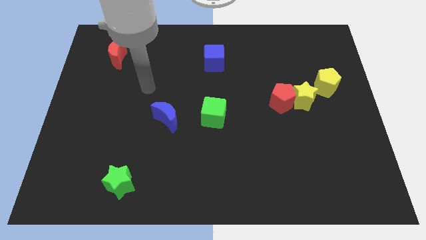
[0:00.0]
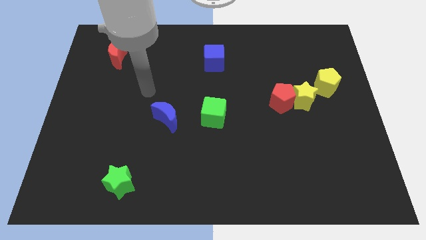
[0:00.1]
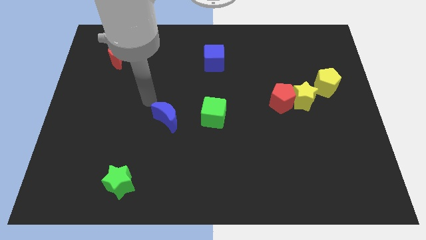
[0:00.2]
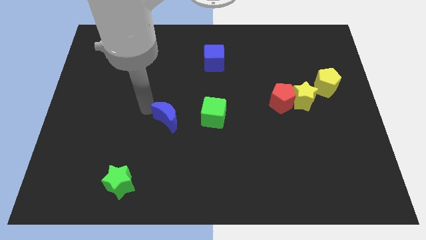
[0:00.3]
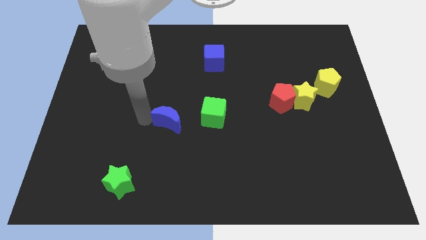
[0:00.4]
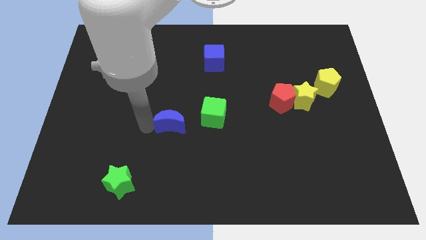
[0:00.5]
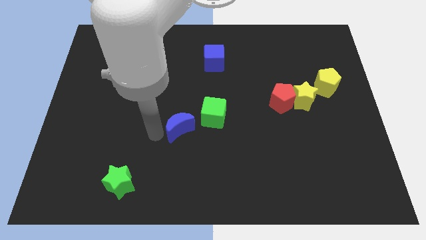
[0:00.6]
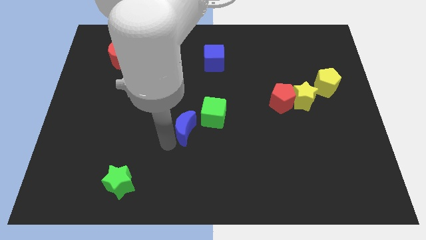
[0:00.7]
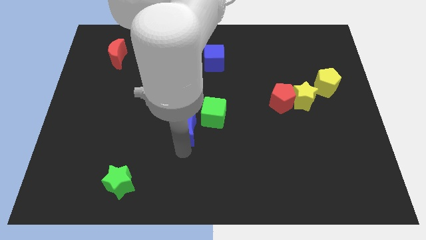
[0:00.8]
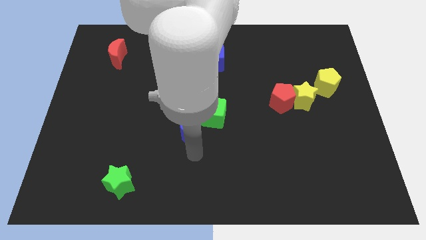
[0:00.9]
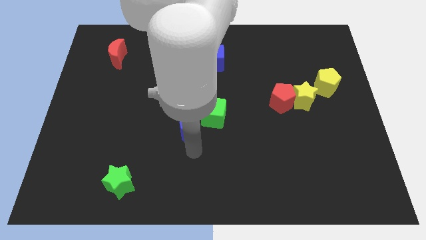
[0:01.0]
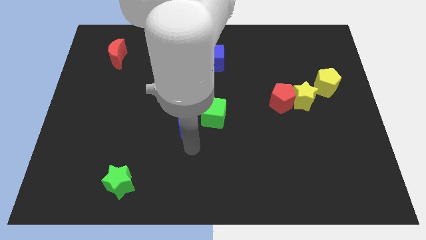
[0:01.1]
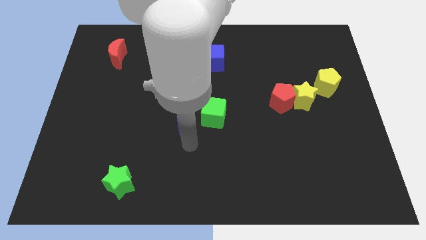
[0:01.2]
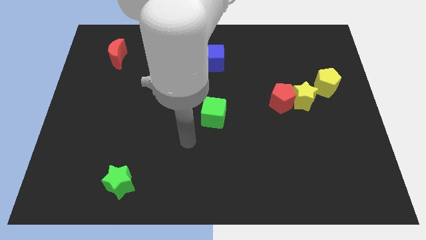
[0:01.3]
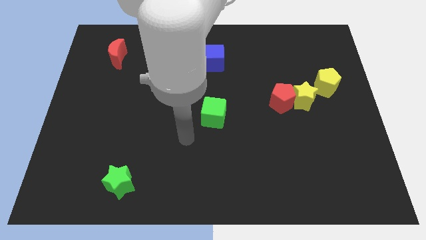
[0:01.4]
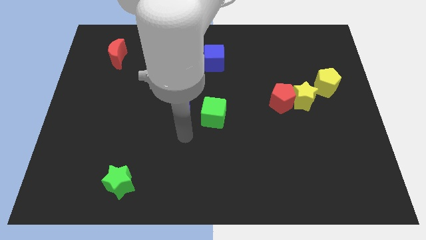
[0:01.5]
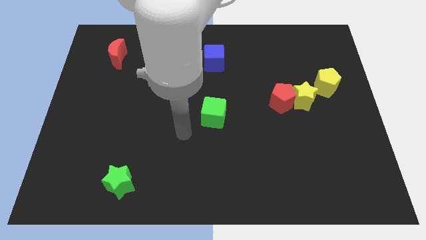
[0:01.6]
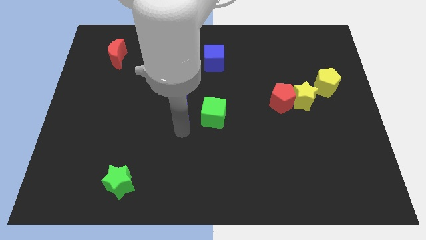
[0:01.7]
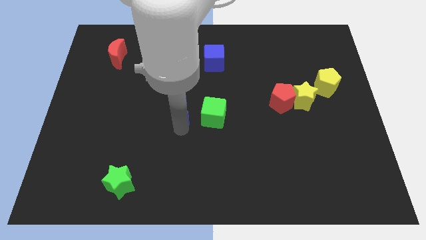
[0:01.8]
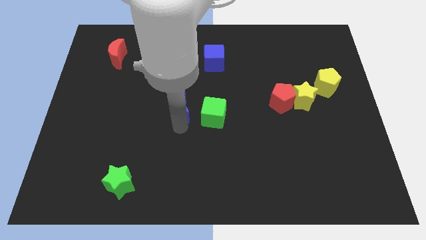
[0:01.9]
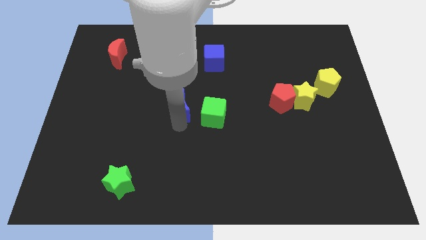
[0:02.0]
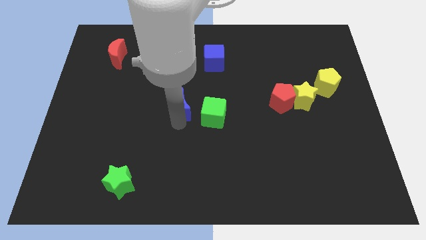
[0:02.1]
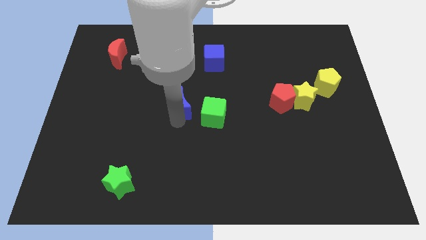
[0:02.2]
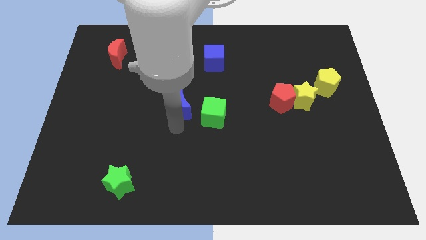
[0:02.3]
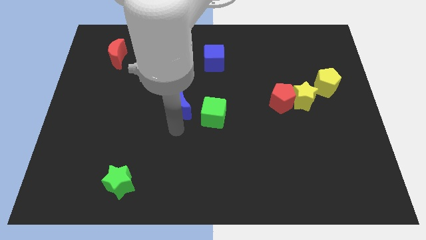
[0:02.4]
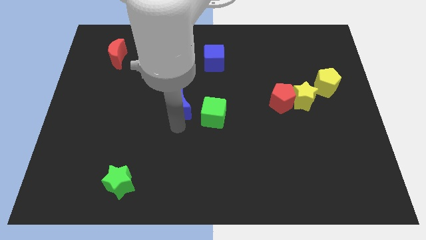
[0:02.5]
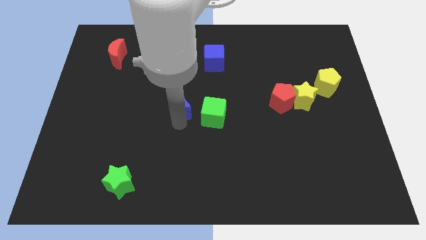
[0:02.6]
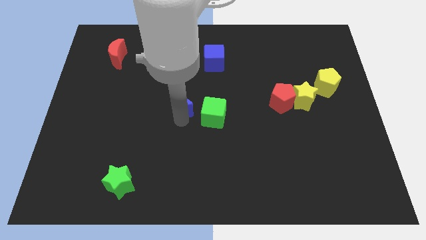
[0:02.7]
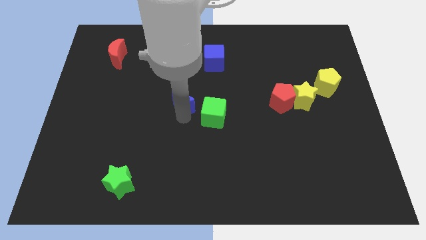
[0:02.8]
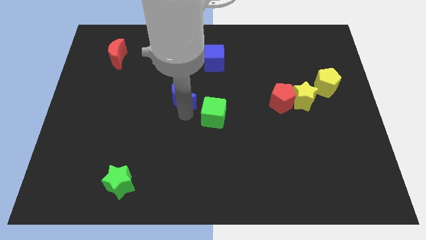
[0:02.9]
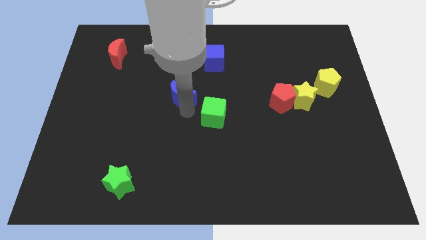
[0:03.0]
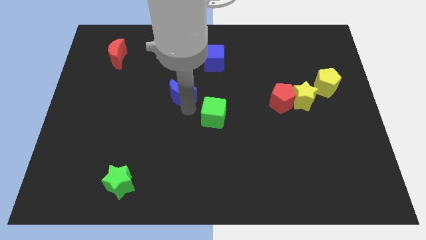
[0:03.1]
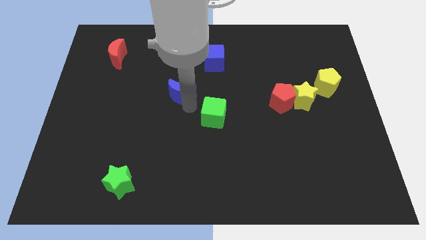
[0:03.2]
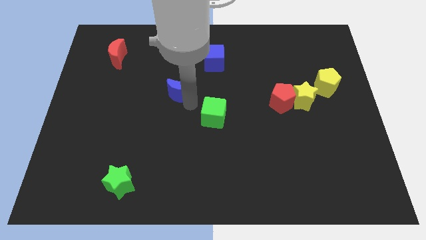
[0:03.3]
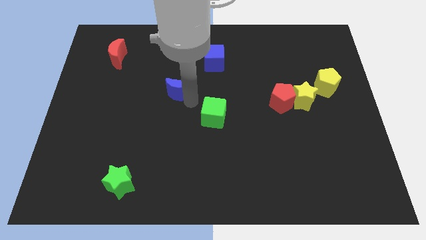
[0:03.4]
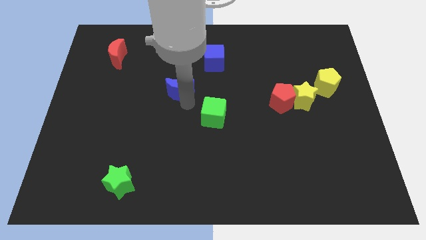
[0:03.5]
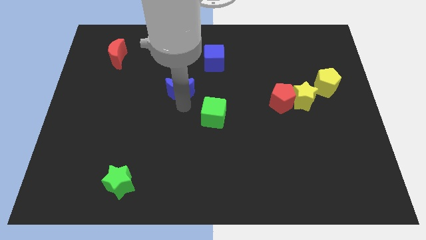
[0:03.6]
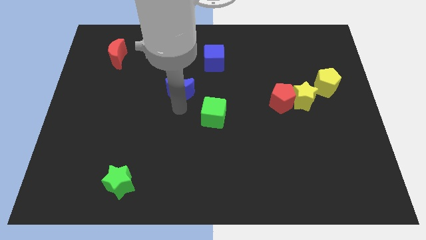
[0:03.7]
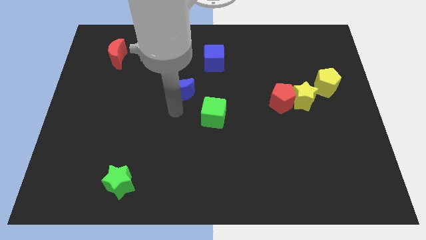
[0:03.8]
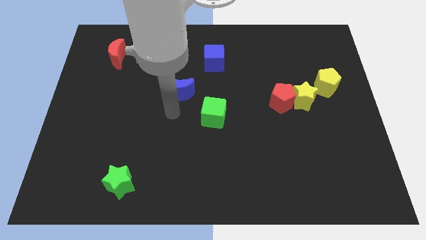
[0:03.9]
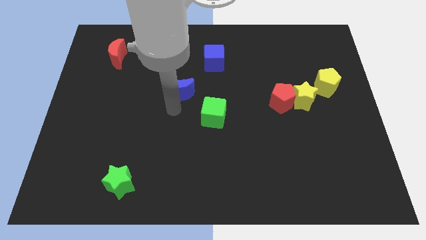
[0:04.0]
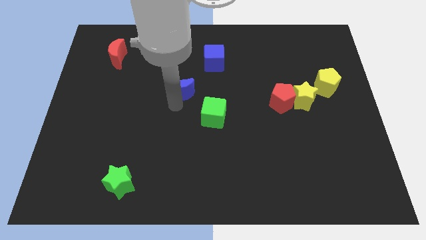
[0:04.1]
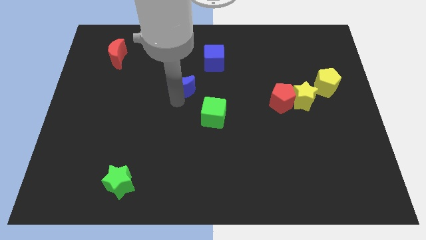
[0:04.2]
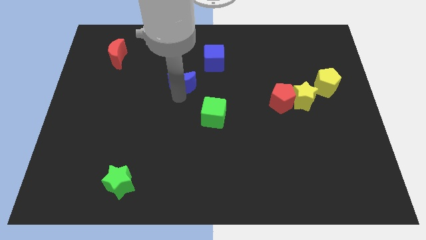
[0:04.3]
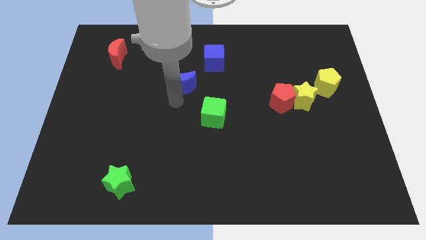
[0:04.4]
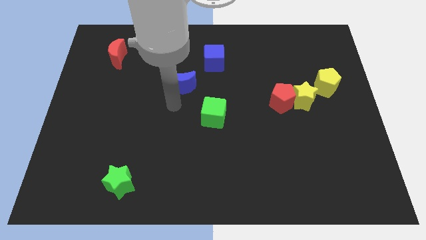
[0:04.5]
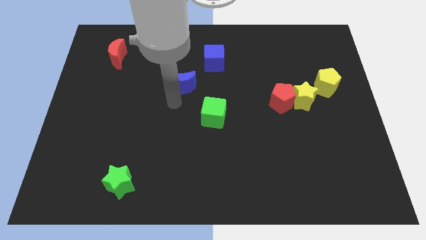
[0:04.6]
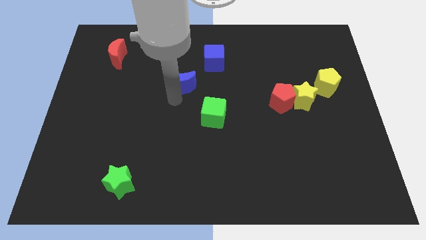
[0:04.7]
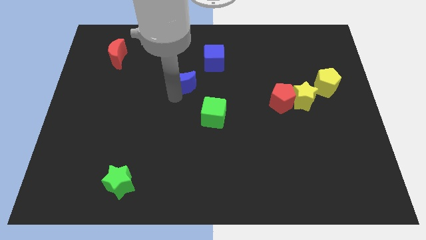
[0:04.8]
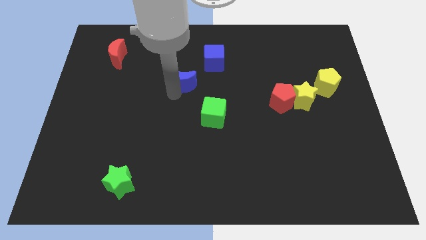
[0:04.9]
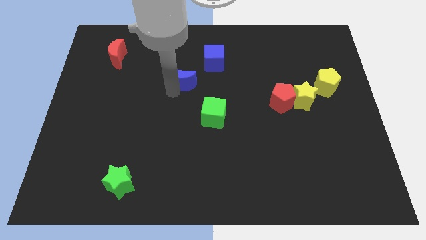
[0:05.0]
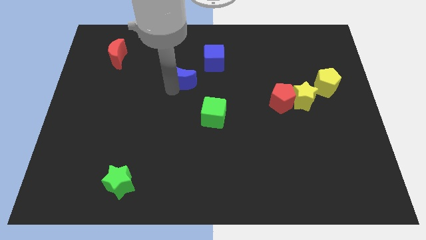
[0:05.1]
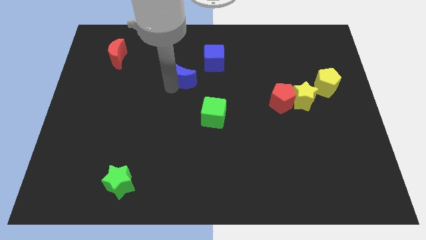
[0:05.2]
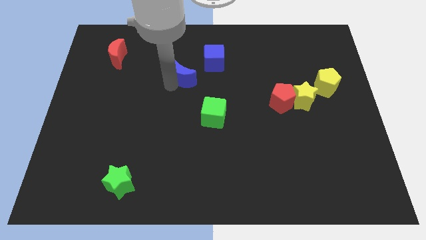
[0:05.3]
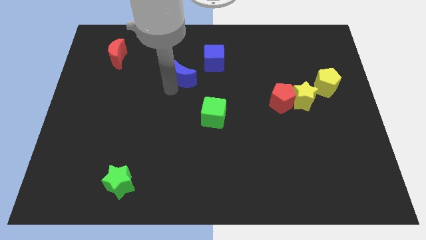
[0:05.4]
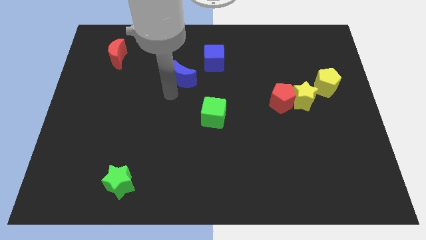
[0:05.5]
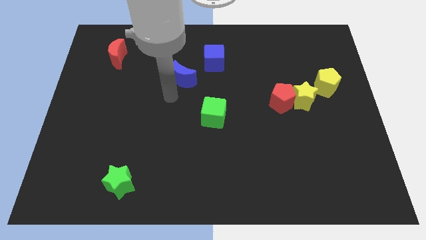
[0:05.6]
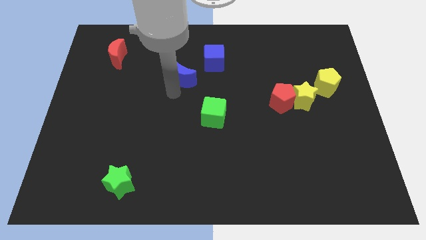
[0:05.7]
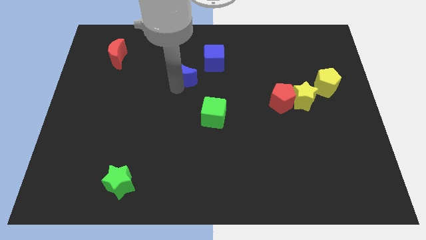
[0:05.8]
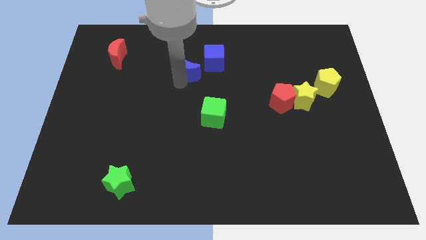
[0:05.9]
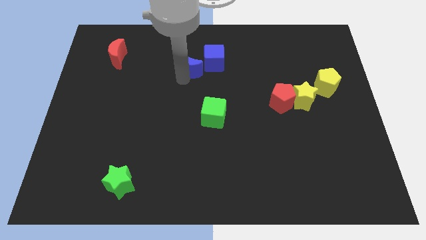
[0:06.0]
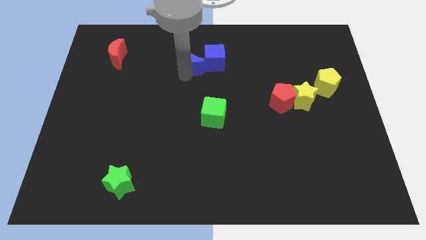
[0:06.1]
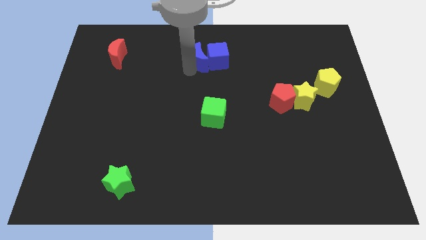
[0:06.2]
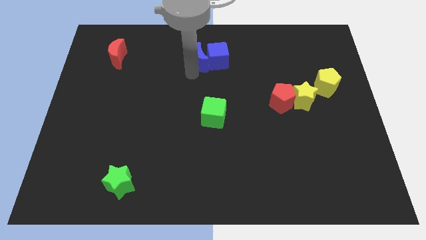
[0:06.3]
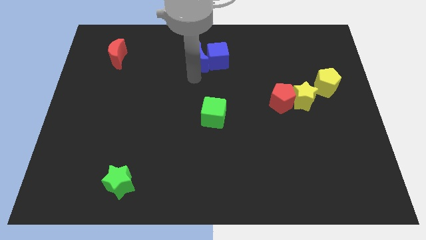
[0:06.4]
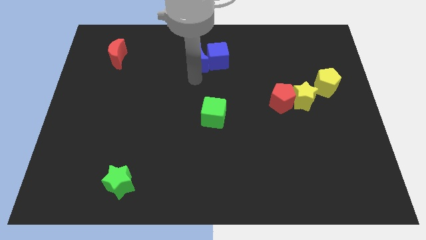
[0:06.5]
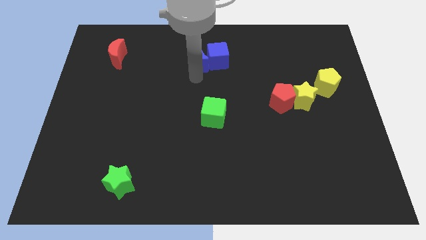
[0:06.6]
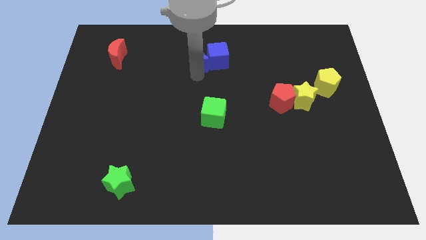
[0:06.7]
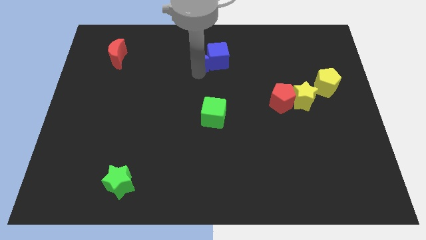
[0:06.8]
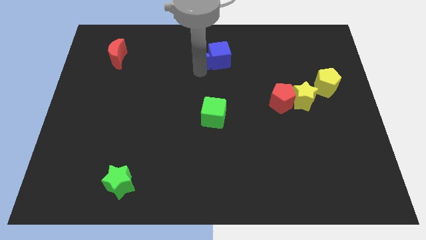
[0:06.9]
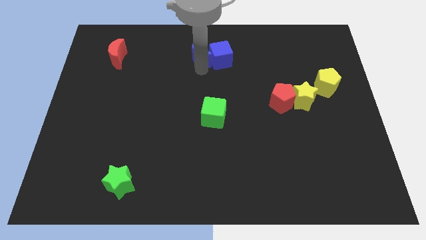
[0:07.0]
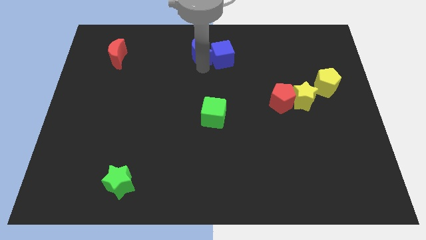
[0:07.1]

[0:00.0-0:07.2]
slide the blue moon to the top
